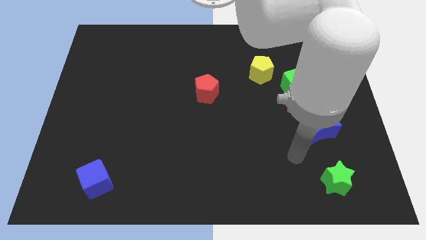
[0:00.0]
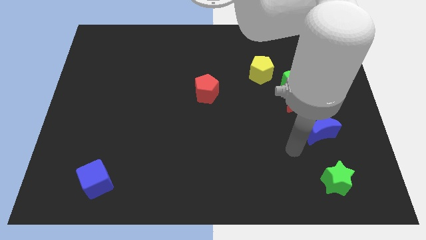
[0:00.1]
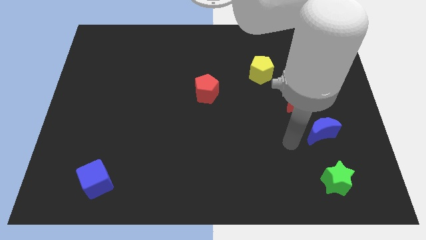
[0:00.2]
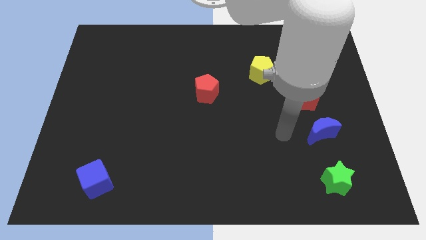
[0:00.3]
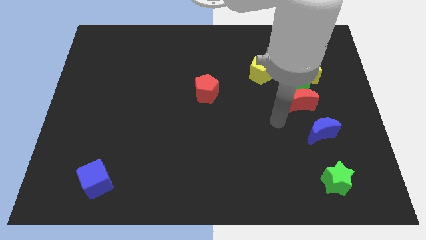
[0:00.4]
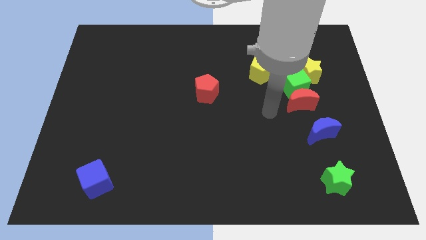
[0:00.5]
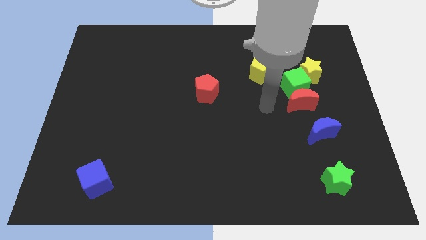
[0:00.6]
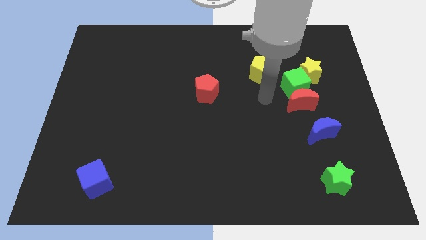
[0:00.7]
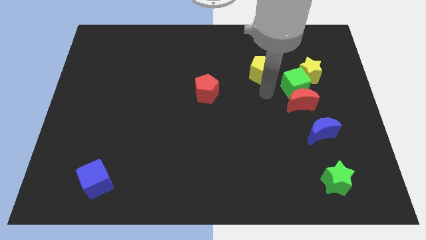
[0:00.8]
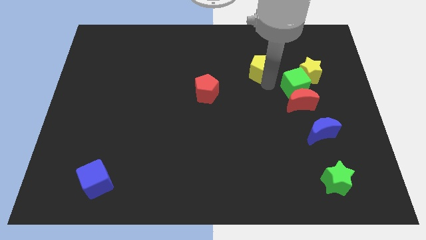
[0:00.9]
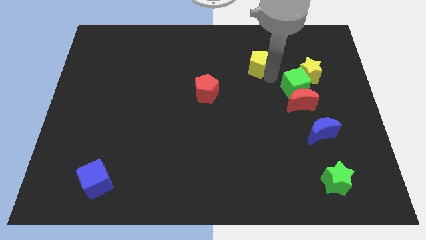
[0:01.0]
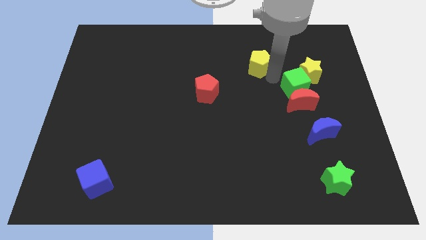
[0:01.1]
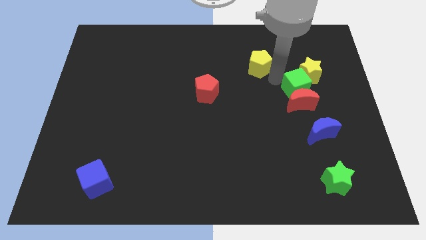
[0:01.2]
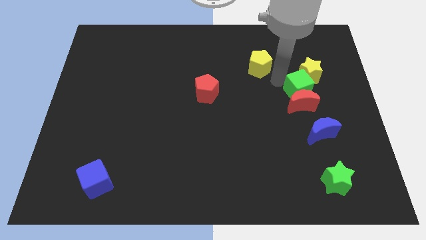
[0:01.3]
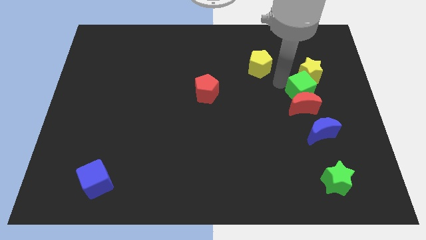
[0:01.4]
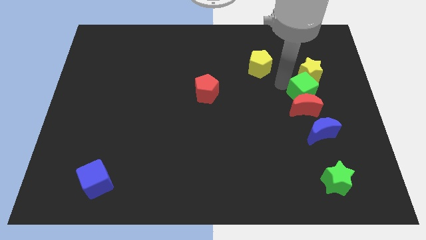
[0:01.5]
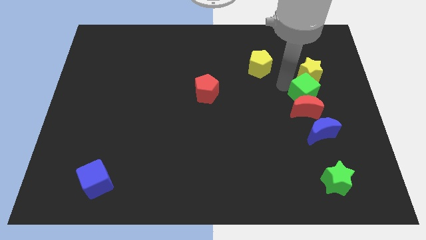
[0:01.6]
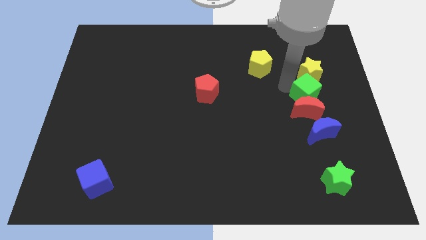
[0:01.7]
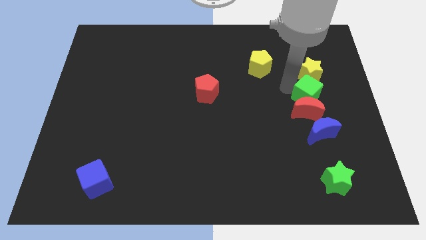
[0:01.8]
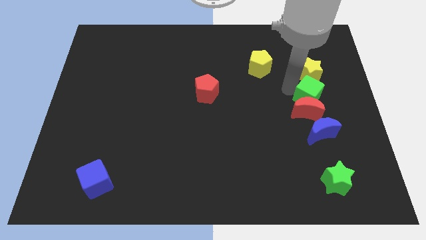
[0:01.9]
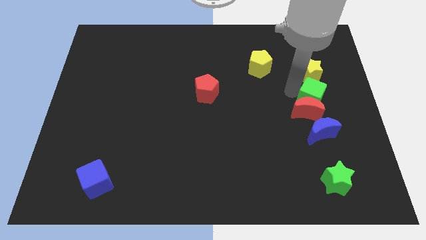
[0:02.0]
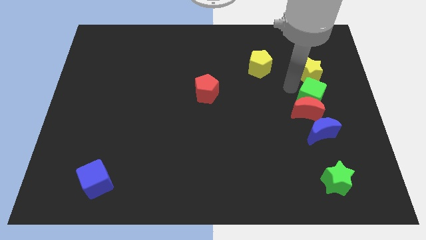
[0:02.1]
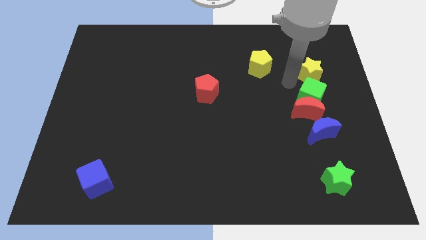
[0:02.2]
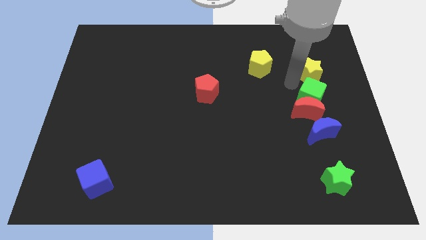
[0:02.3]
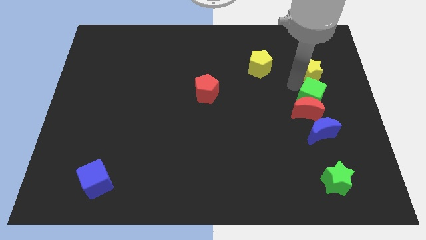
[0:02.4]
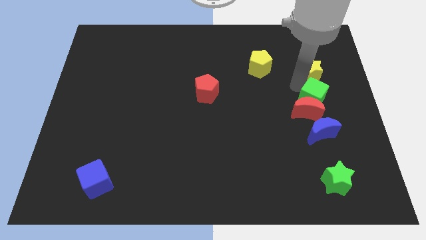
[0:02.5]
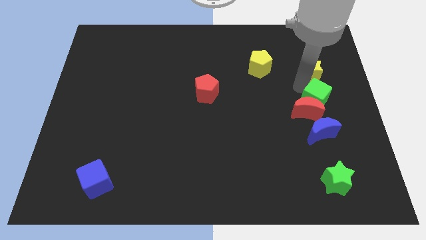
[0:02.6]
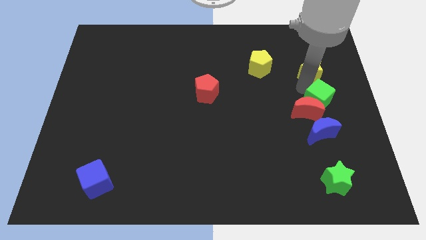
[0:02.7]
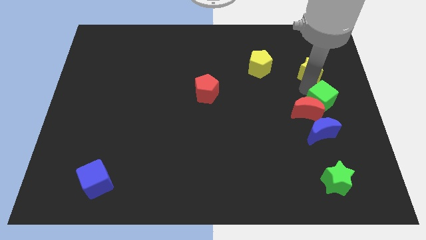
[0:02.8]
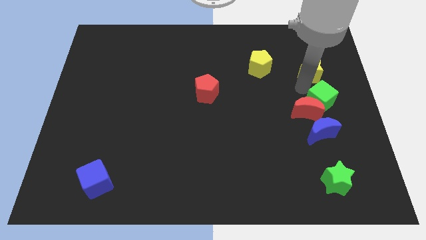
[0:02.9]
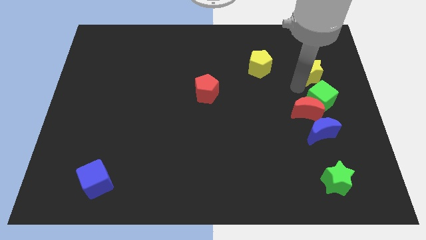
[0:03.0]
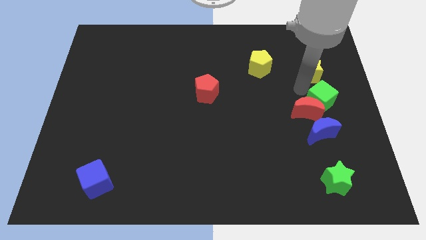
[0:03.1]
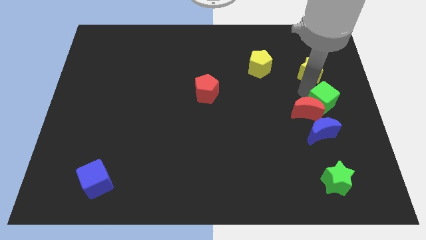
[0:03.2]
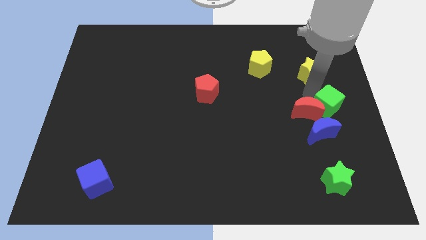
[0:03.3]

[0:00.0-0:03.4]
pull the green cube apart from the red moon, yellow star, and yellow pentagon

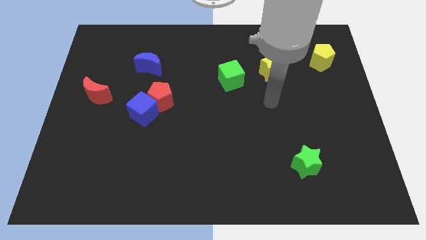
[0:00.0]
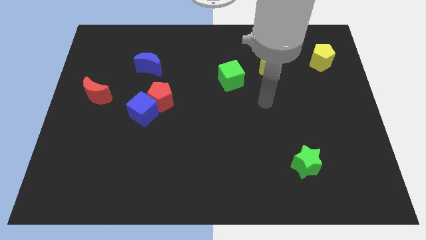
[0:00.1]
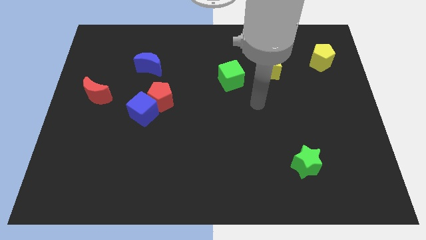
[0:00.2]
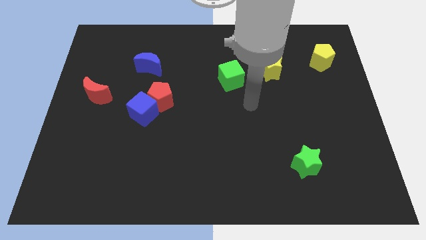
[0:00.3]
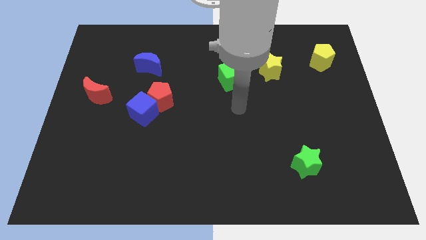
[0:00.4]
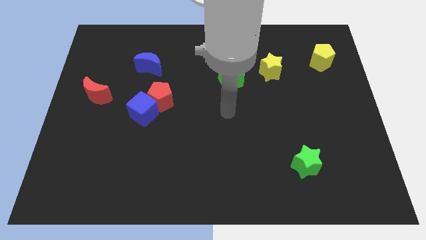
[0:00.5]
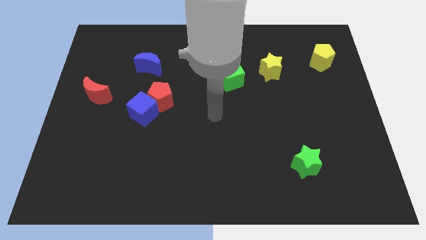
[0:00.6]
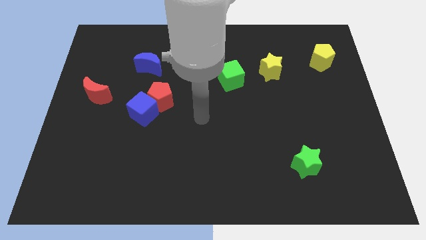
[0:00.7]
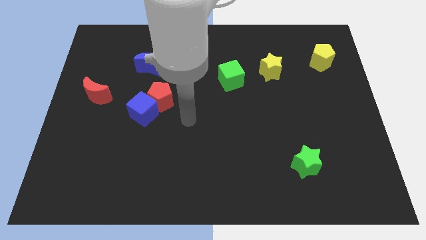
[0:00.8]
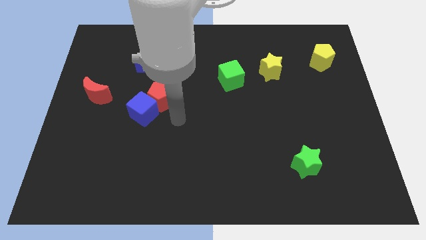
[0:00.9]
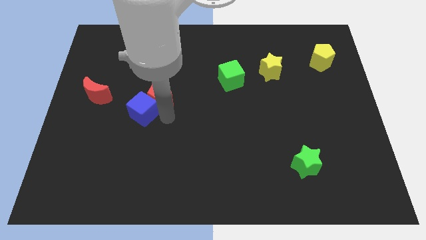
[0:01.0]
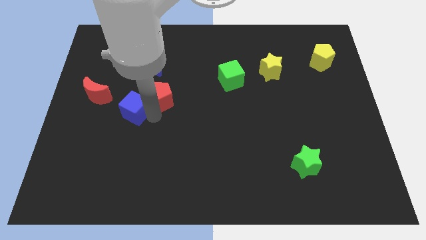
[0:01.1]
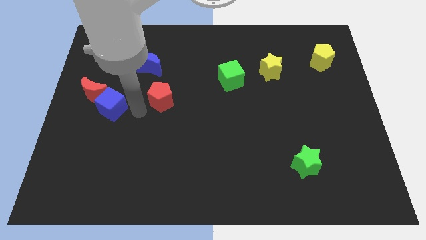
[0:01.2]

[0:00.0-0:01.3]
pull the red pentagon apart from the blue cube

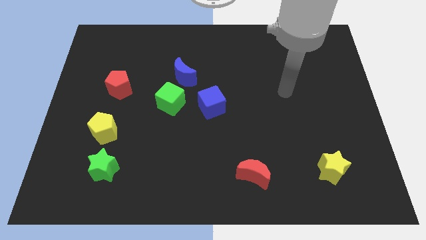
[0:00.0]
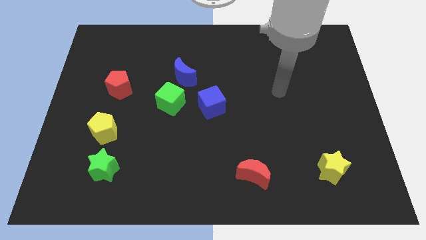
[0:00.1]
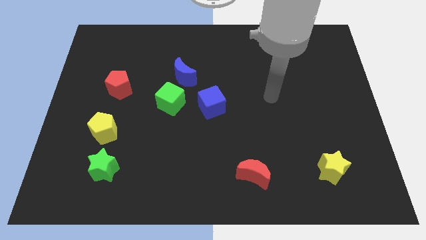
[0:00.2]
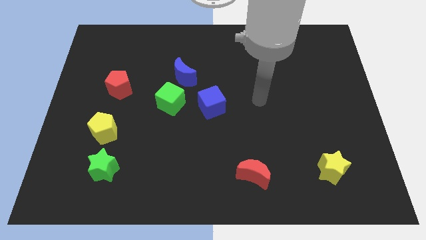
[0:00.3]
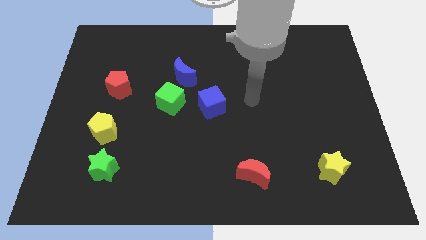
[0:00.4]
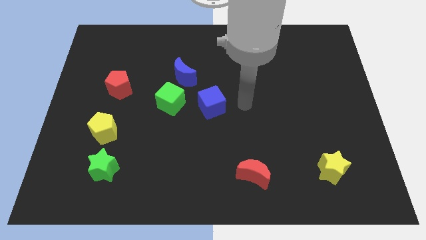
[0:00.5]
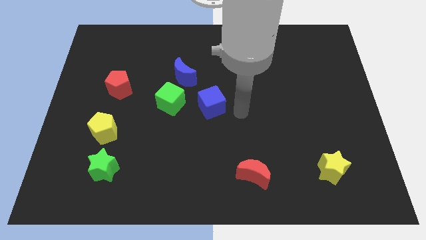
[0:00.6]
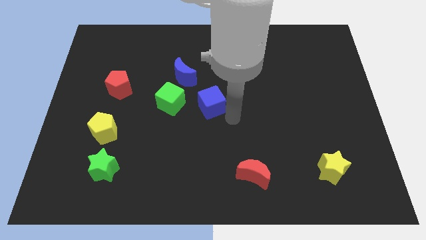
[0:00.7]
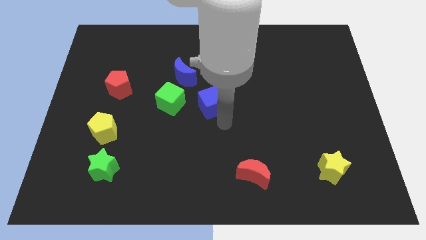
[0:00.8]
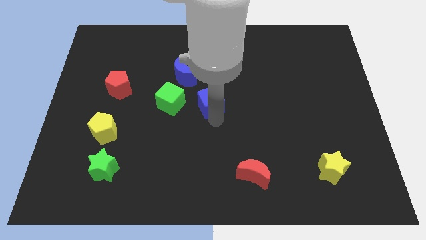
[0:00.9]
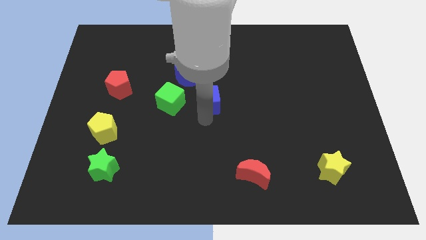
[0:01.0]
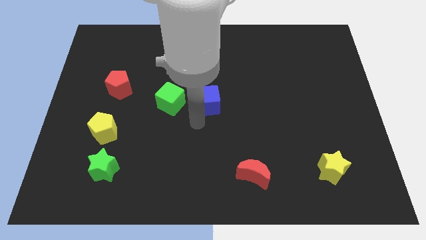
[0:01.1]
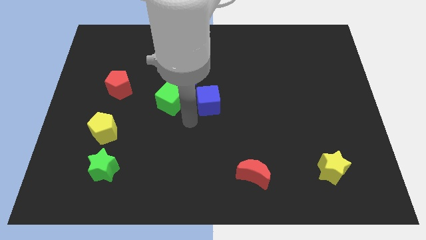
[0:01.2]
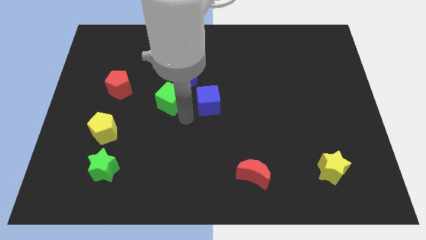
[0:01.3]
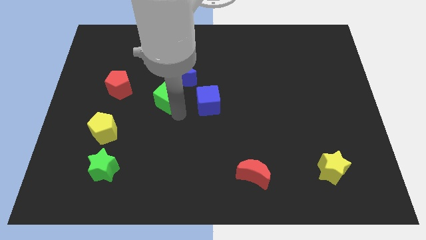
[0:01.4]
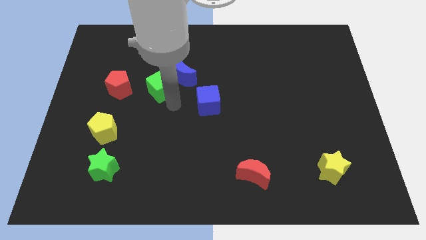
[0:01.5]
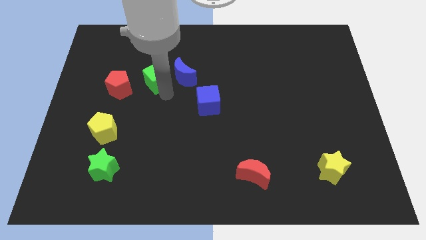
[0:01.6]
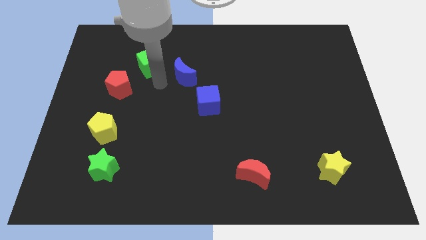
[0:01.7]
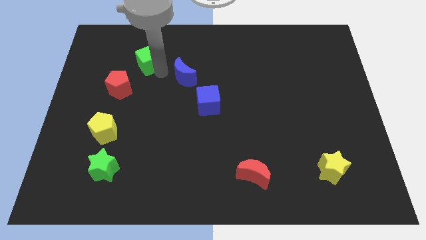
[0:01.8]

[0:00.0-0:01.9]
pull the blue moon apart from the green cube

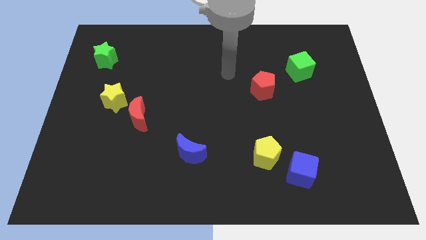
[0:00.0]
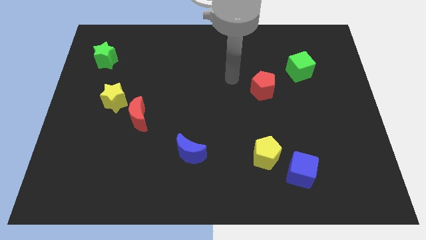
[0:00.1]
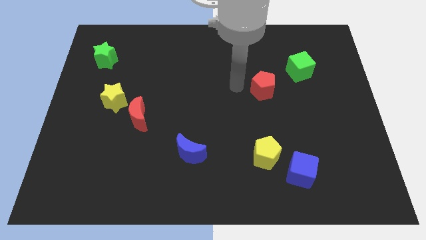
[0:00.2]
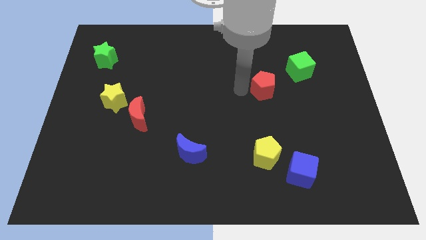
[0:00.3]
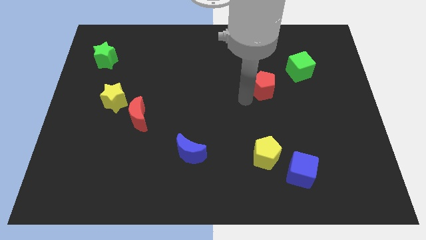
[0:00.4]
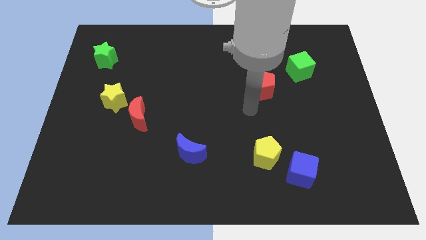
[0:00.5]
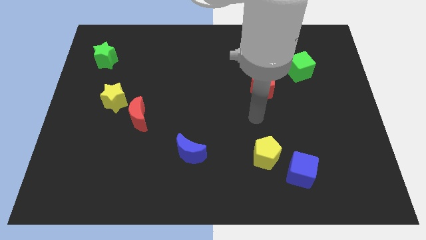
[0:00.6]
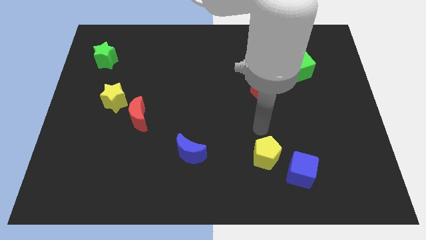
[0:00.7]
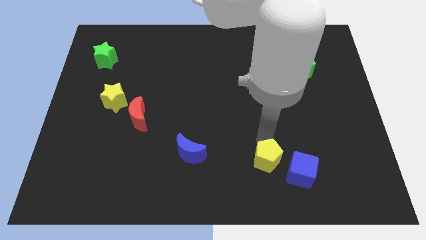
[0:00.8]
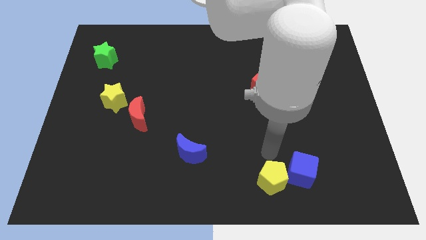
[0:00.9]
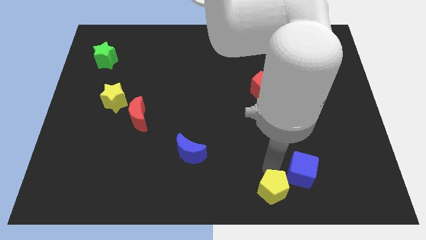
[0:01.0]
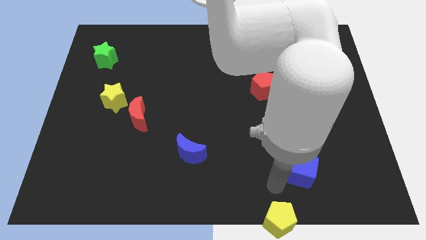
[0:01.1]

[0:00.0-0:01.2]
pull the blue cube apart from the yellow pentagon

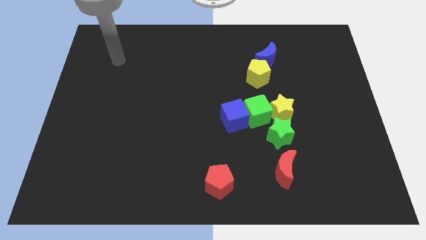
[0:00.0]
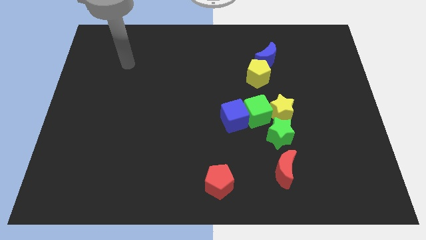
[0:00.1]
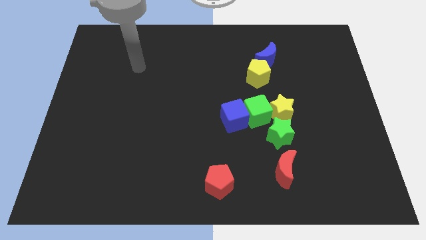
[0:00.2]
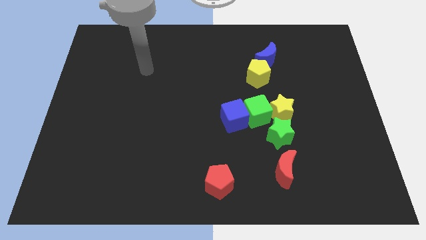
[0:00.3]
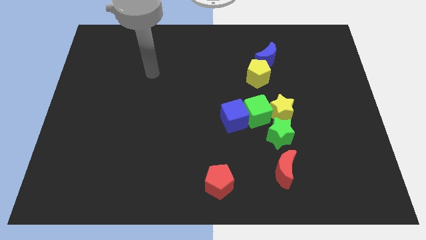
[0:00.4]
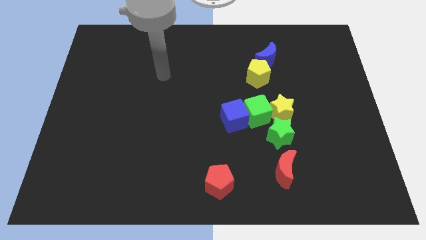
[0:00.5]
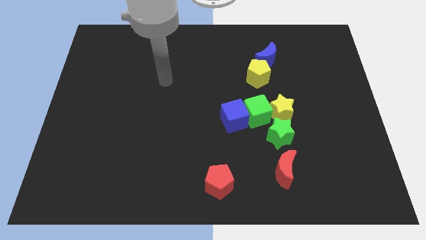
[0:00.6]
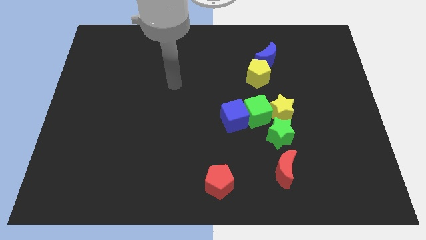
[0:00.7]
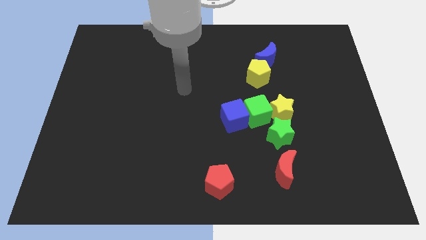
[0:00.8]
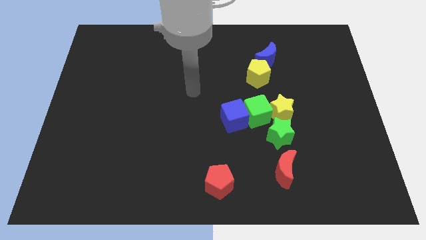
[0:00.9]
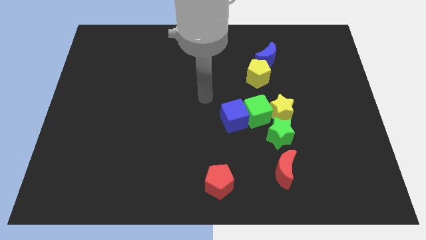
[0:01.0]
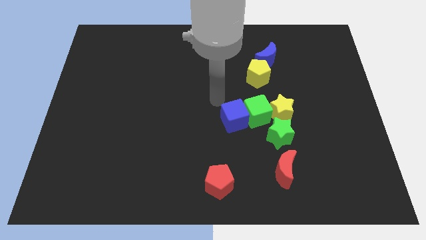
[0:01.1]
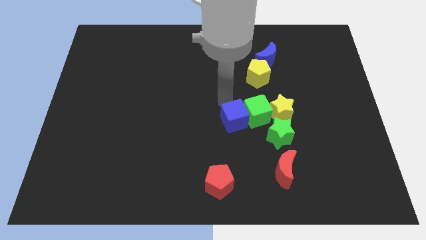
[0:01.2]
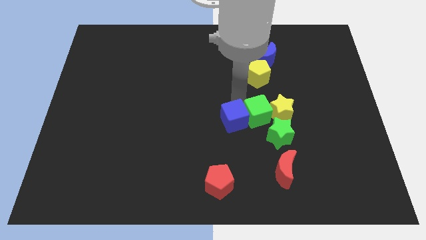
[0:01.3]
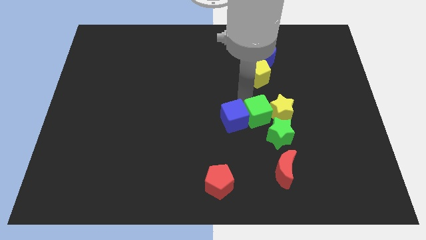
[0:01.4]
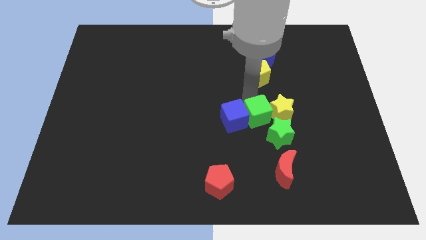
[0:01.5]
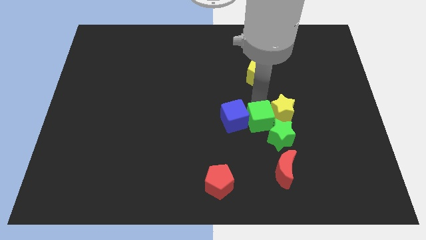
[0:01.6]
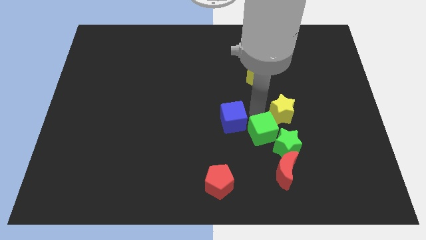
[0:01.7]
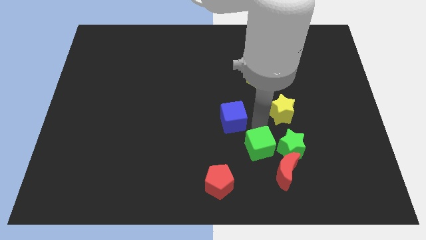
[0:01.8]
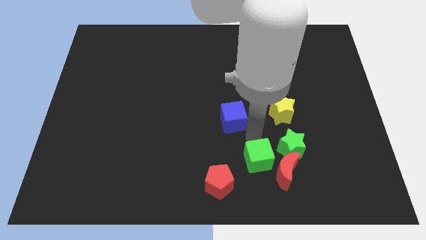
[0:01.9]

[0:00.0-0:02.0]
separate the blue cube from the green cube
